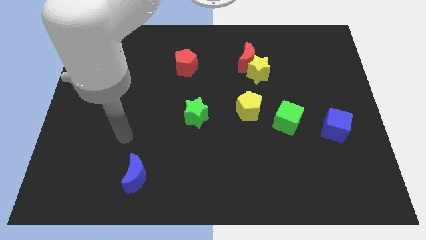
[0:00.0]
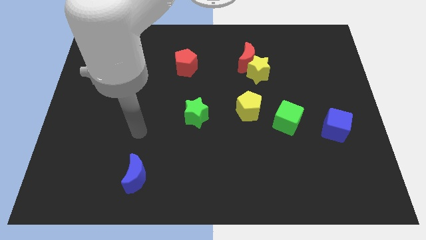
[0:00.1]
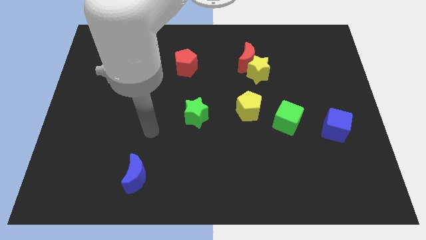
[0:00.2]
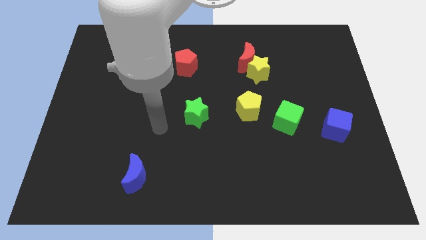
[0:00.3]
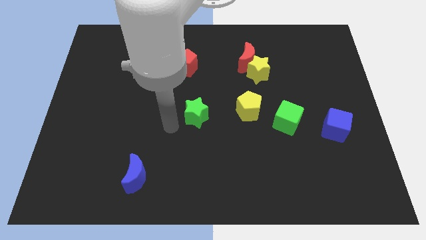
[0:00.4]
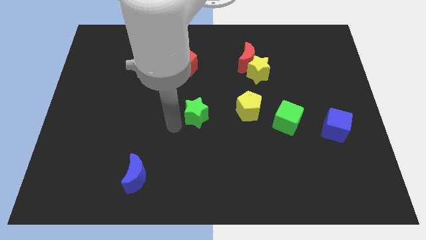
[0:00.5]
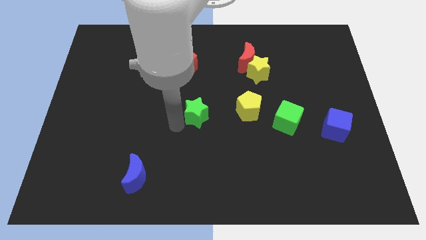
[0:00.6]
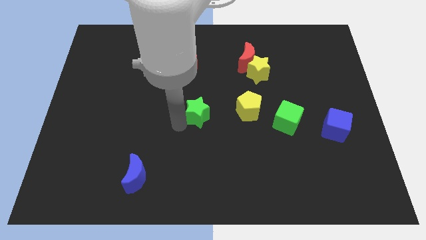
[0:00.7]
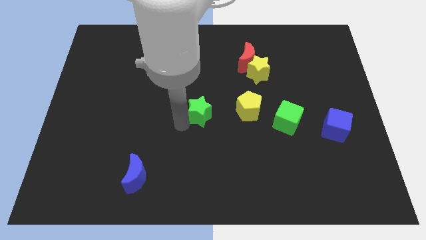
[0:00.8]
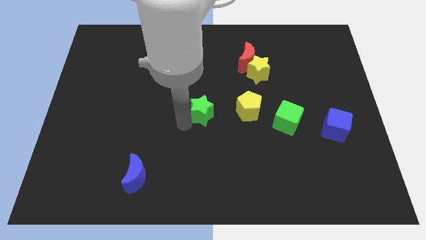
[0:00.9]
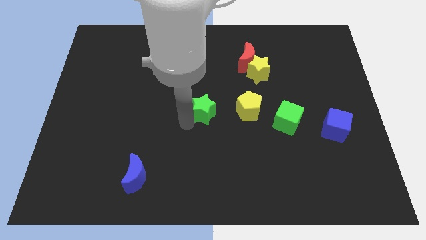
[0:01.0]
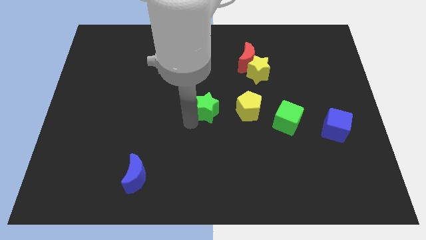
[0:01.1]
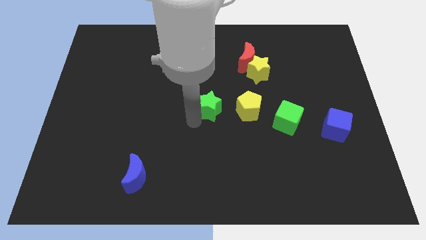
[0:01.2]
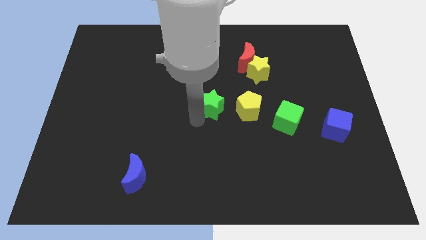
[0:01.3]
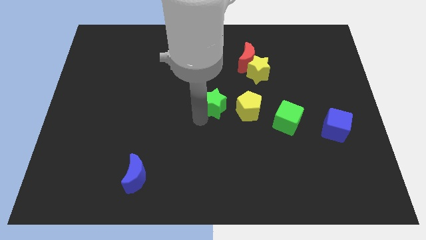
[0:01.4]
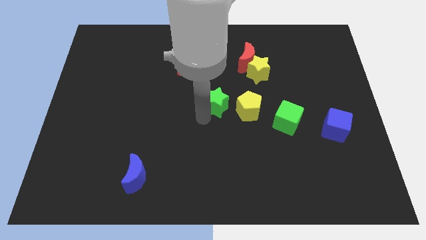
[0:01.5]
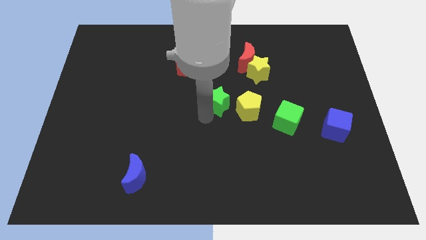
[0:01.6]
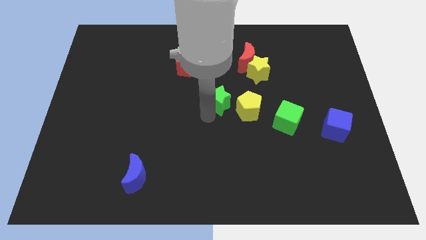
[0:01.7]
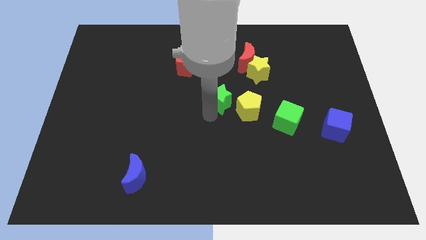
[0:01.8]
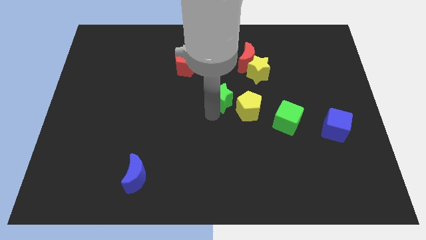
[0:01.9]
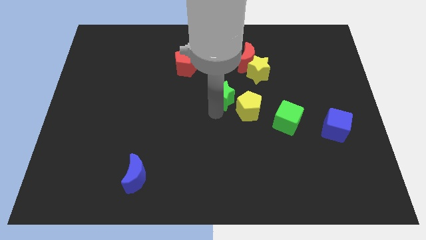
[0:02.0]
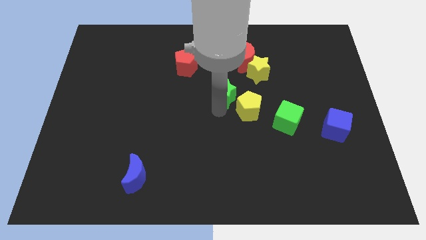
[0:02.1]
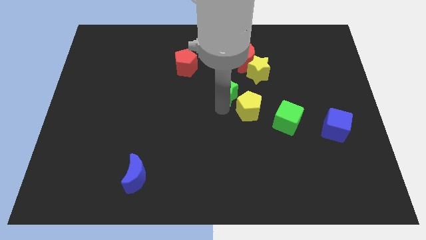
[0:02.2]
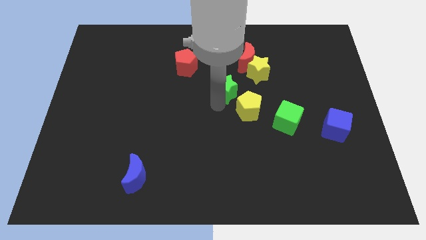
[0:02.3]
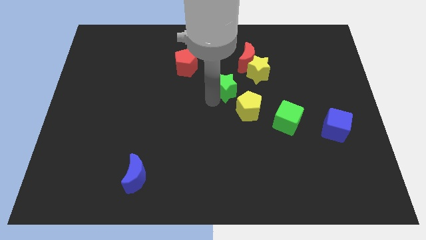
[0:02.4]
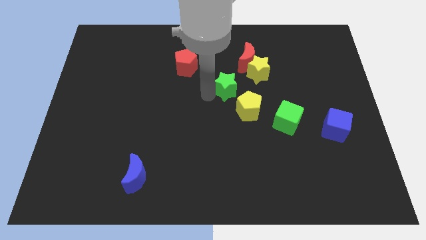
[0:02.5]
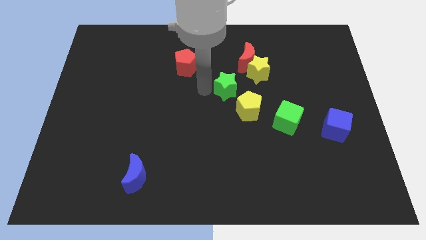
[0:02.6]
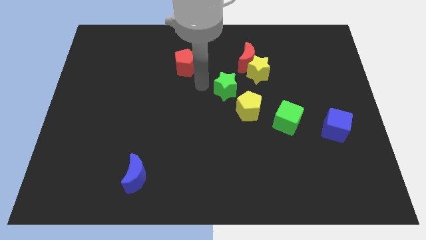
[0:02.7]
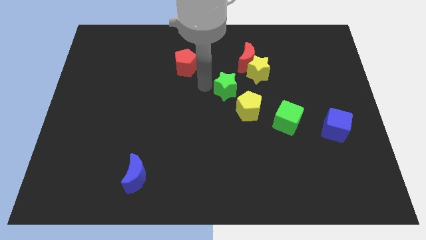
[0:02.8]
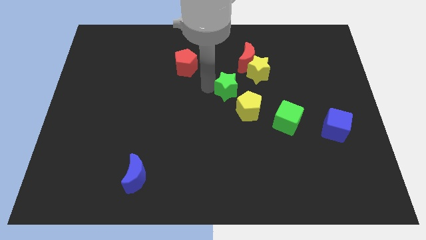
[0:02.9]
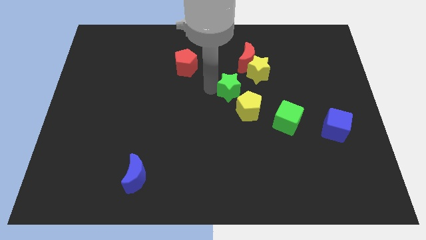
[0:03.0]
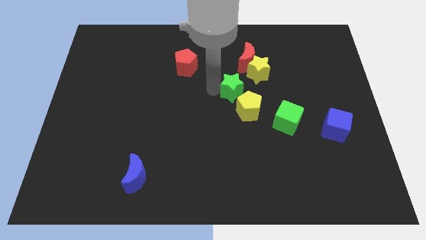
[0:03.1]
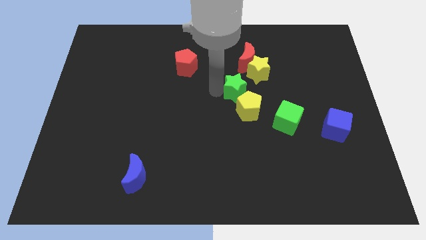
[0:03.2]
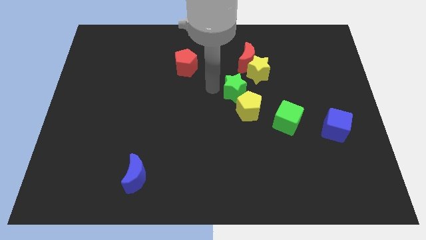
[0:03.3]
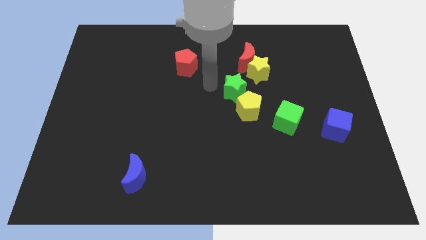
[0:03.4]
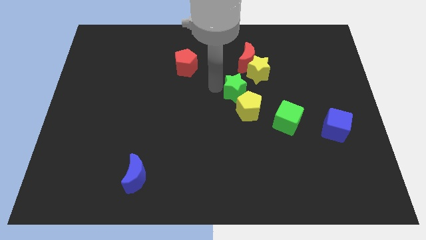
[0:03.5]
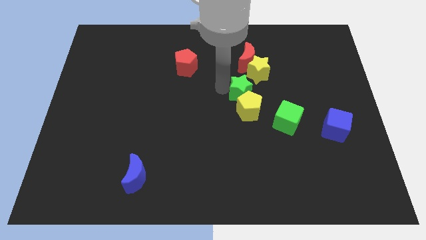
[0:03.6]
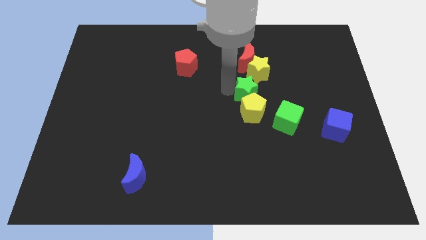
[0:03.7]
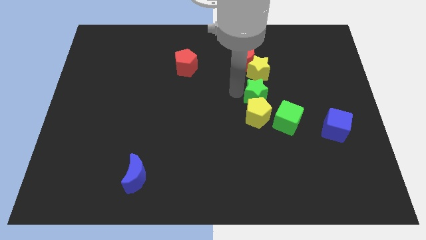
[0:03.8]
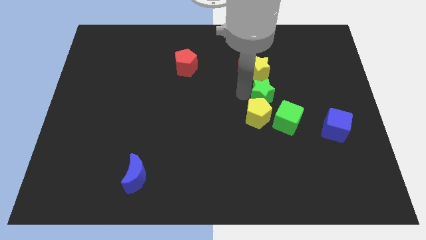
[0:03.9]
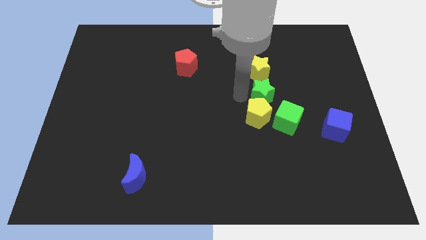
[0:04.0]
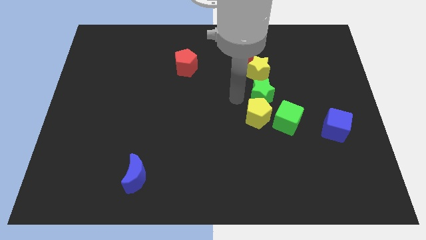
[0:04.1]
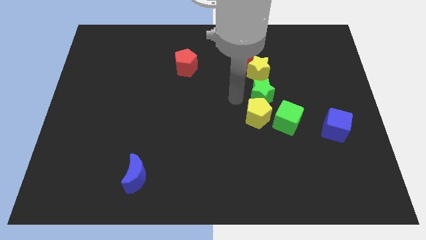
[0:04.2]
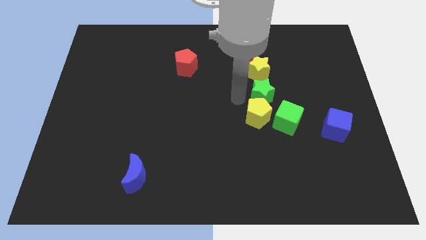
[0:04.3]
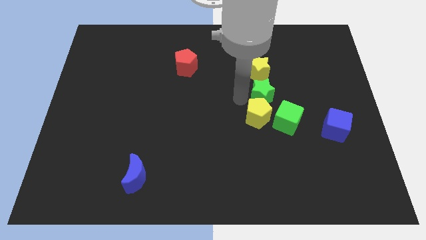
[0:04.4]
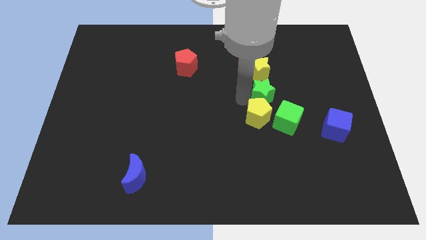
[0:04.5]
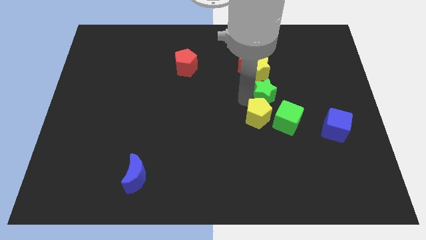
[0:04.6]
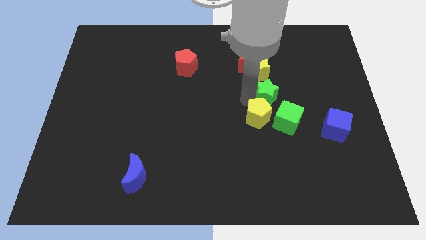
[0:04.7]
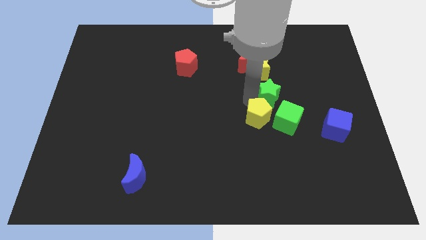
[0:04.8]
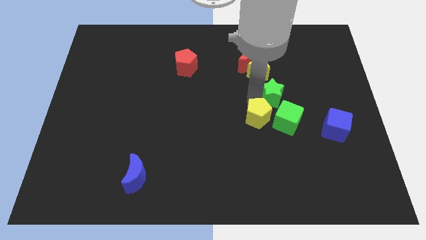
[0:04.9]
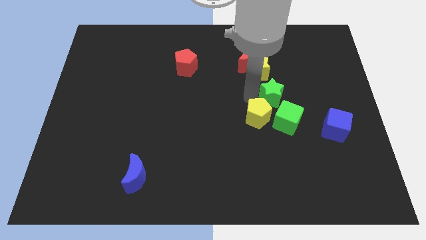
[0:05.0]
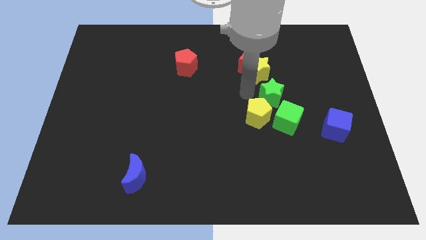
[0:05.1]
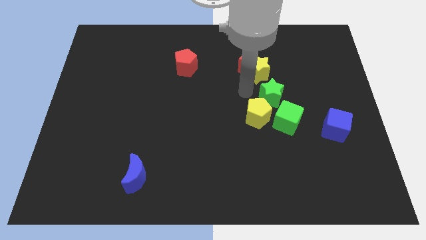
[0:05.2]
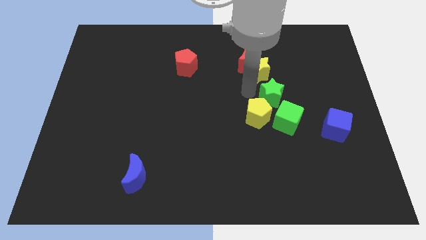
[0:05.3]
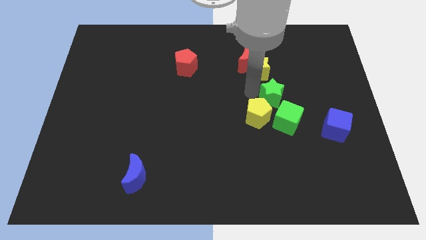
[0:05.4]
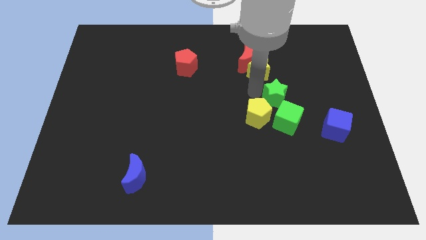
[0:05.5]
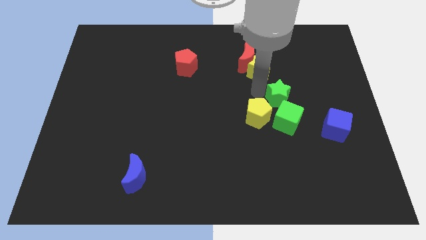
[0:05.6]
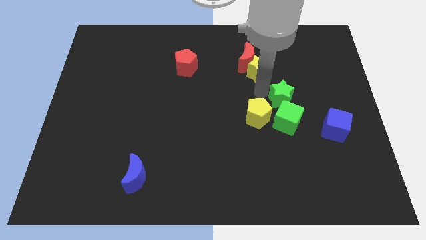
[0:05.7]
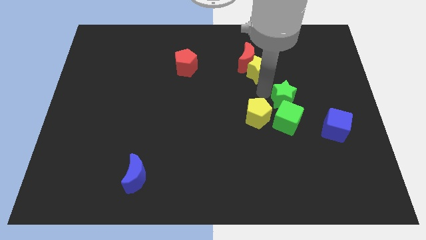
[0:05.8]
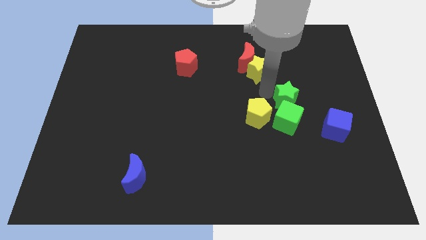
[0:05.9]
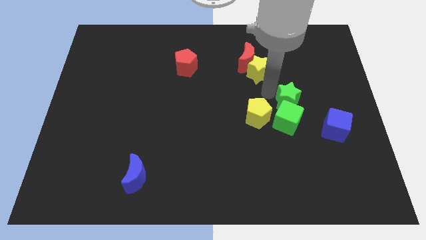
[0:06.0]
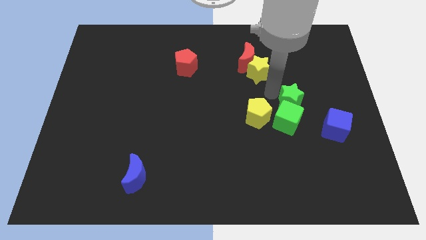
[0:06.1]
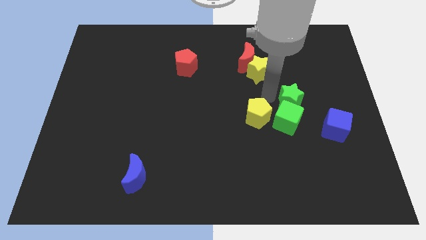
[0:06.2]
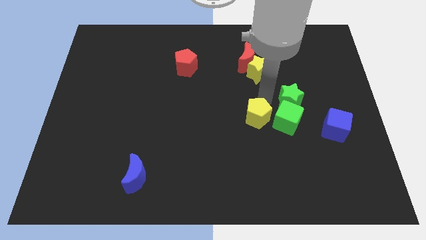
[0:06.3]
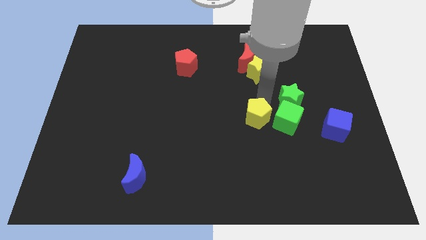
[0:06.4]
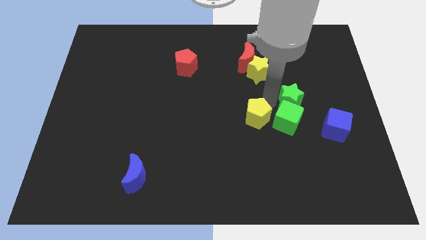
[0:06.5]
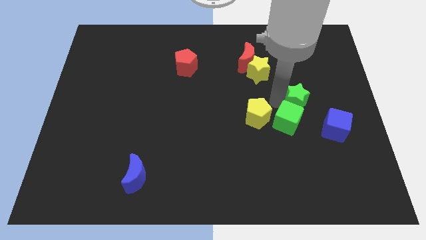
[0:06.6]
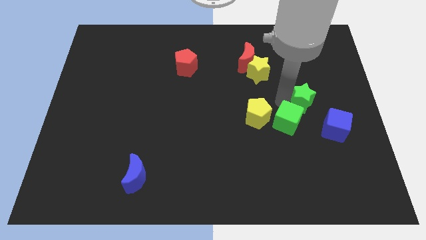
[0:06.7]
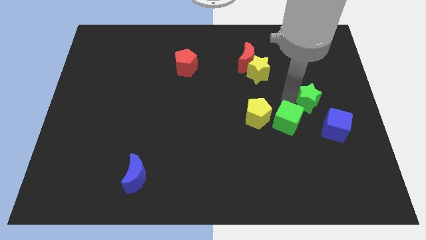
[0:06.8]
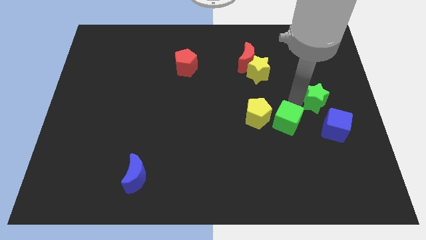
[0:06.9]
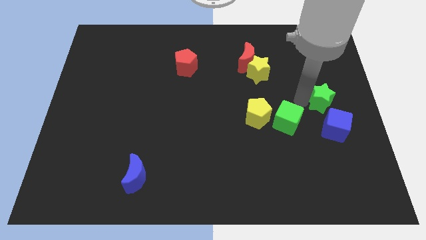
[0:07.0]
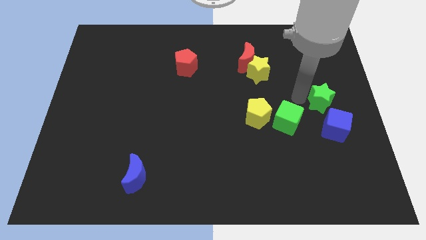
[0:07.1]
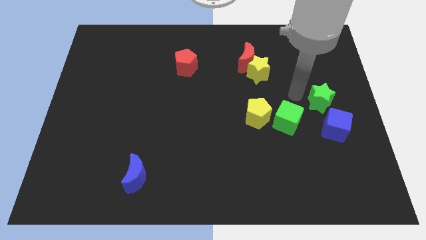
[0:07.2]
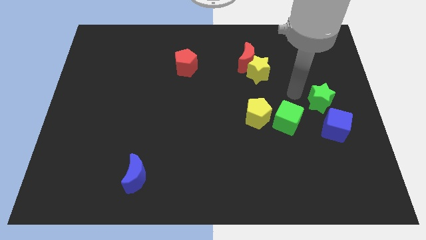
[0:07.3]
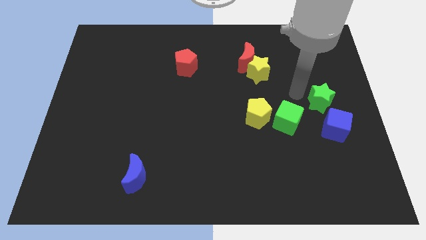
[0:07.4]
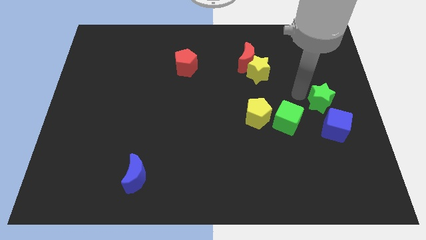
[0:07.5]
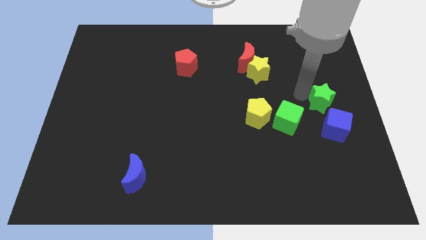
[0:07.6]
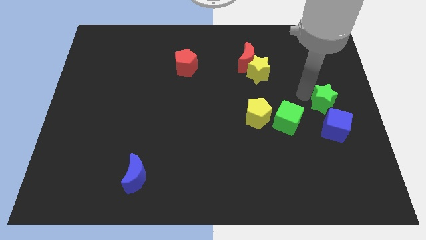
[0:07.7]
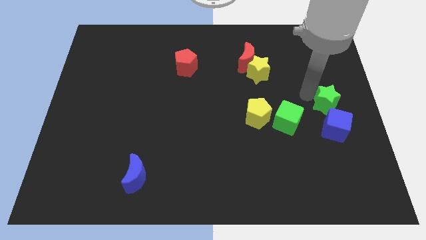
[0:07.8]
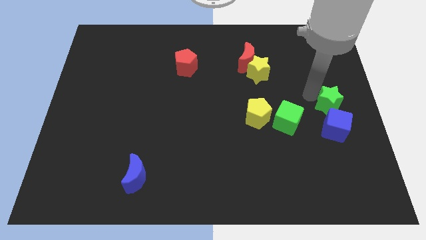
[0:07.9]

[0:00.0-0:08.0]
slide the green star right of the green cube
